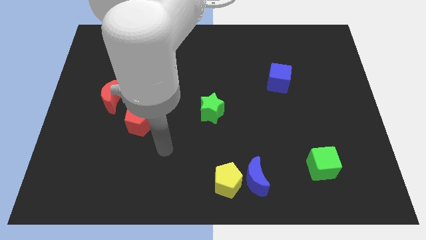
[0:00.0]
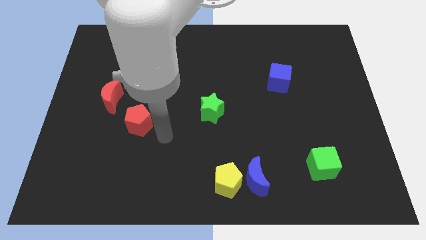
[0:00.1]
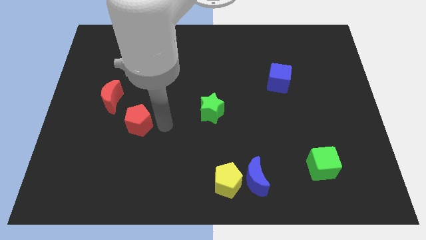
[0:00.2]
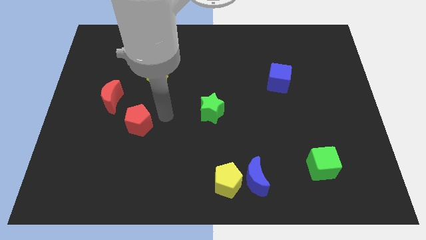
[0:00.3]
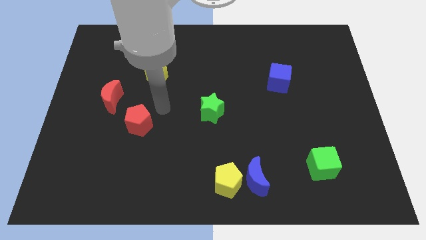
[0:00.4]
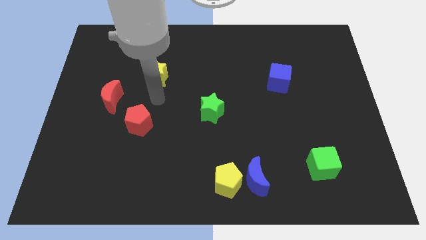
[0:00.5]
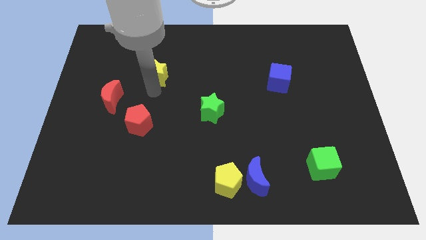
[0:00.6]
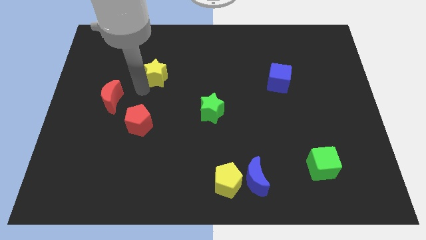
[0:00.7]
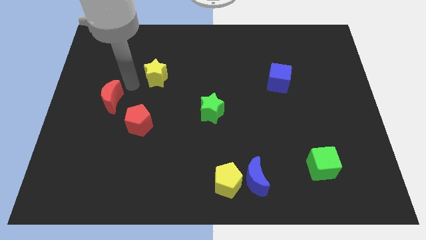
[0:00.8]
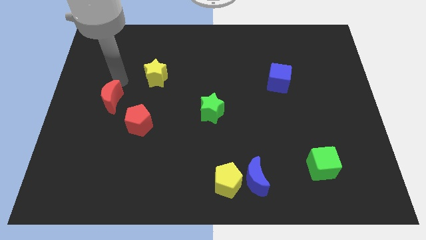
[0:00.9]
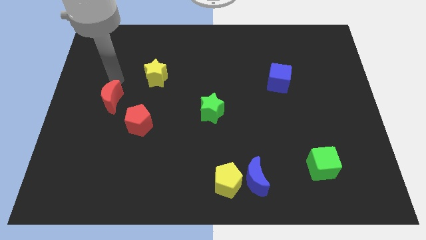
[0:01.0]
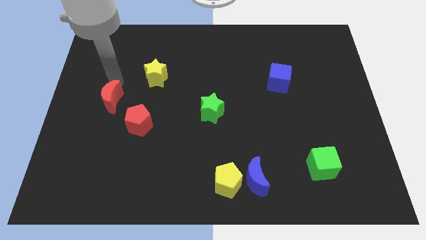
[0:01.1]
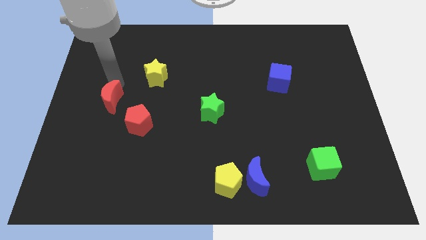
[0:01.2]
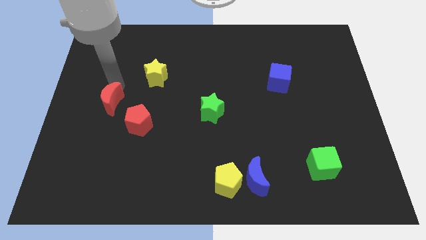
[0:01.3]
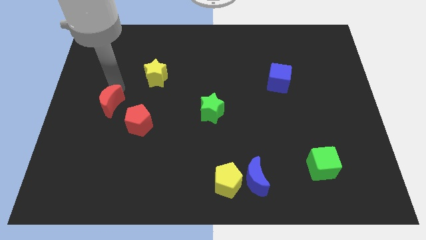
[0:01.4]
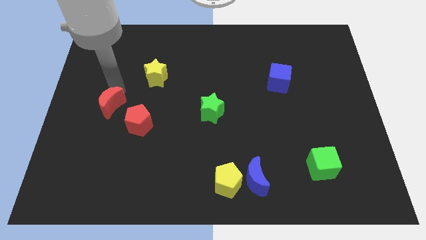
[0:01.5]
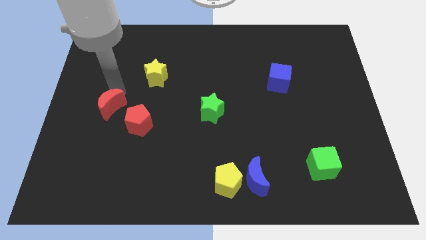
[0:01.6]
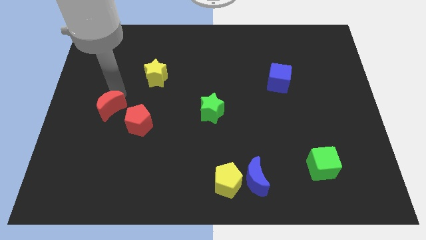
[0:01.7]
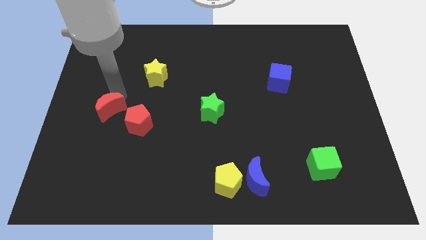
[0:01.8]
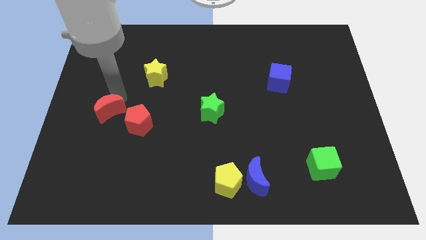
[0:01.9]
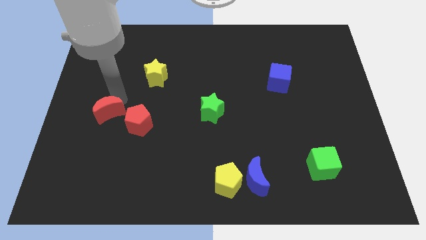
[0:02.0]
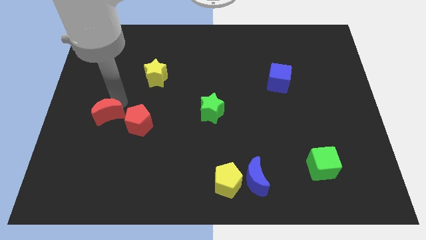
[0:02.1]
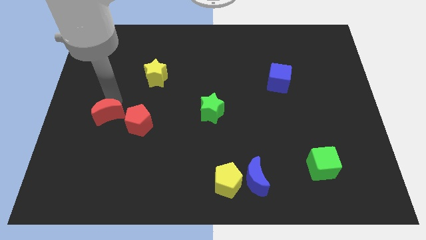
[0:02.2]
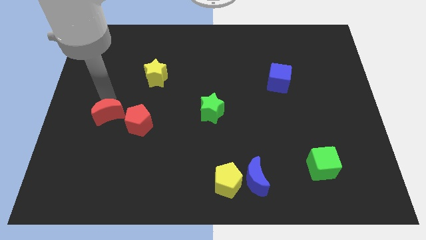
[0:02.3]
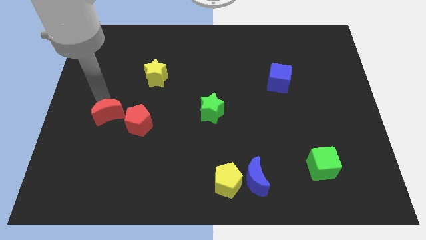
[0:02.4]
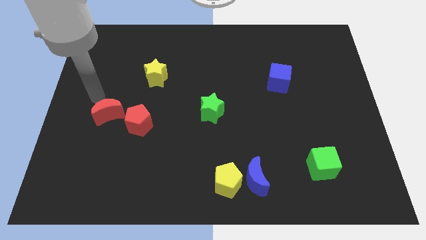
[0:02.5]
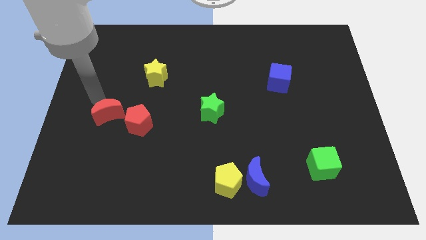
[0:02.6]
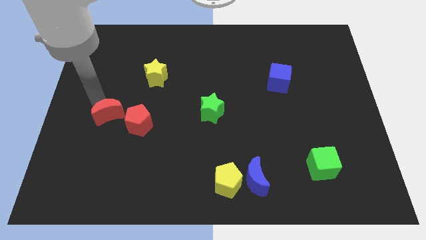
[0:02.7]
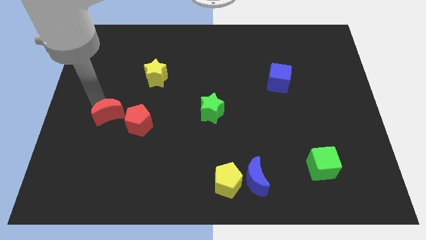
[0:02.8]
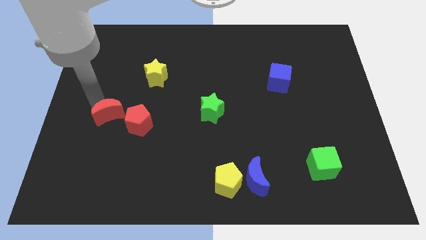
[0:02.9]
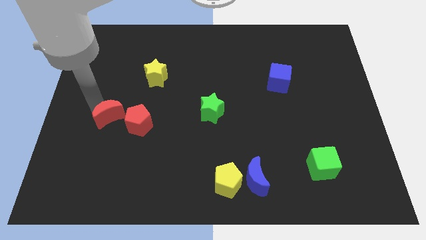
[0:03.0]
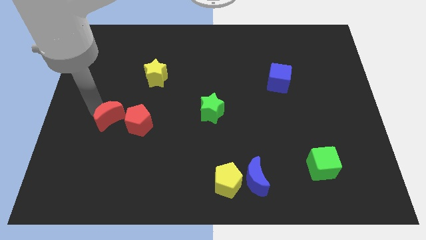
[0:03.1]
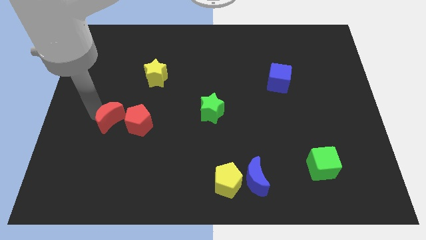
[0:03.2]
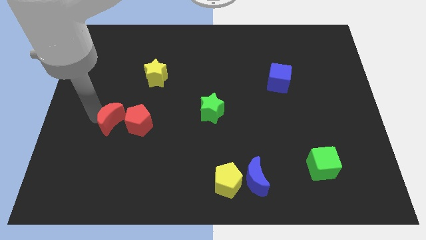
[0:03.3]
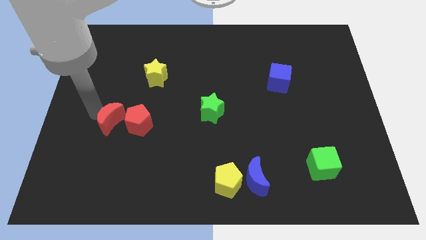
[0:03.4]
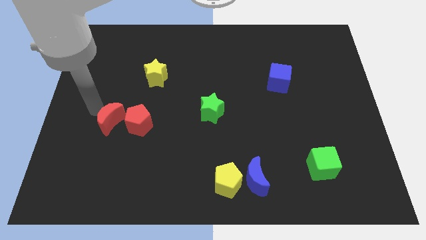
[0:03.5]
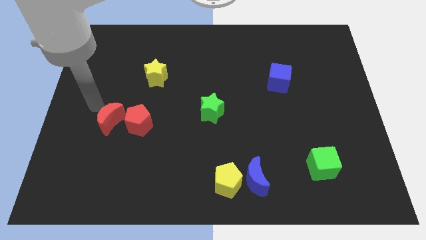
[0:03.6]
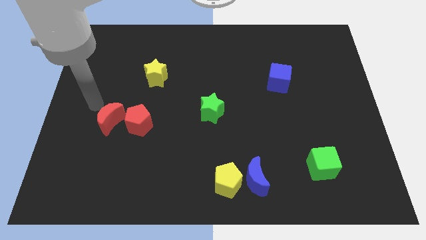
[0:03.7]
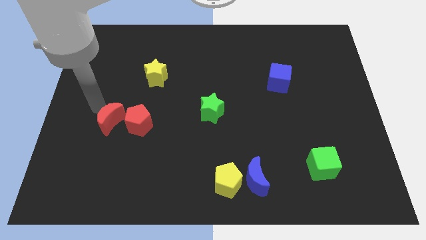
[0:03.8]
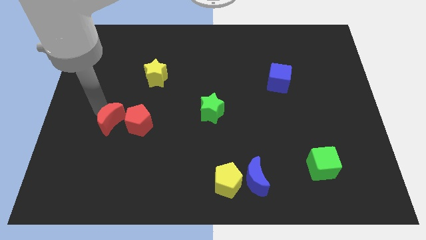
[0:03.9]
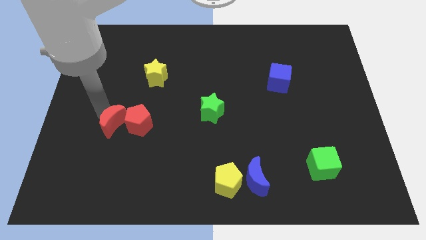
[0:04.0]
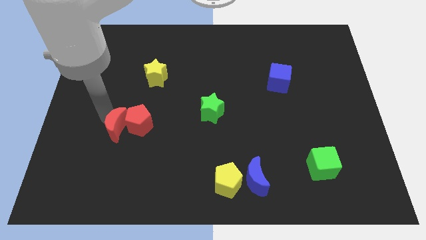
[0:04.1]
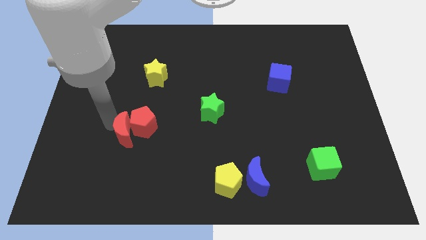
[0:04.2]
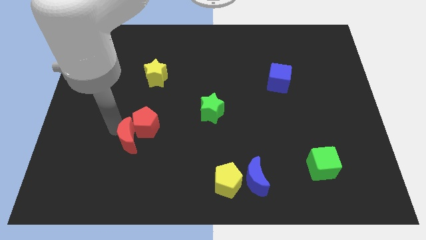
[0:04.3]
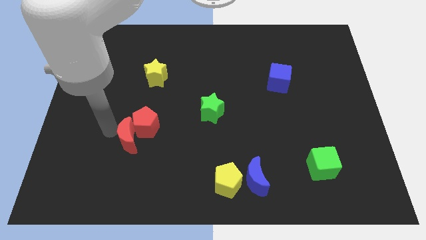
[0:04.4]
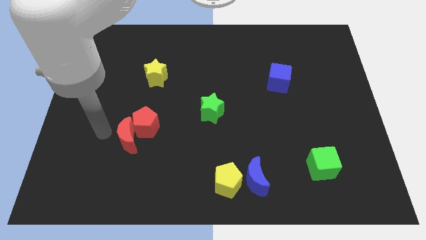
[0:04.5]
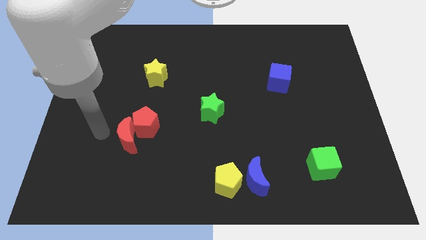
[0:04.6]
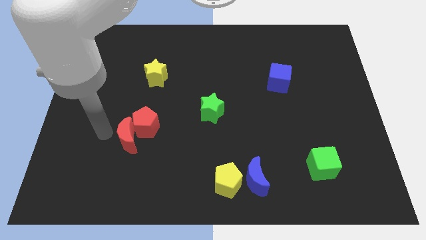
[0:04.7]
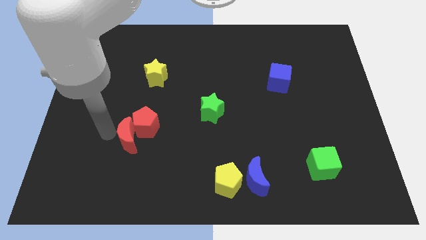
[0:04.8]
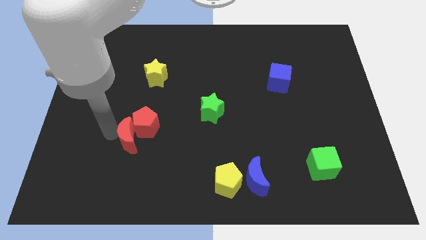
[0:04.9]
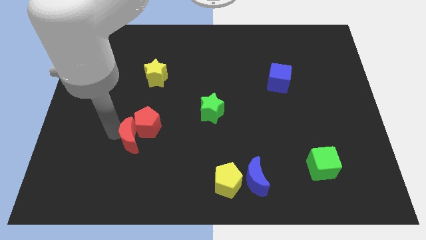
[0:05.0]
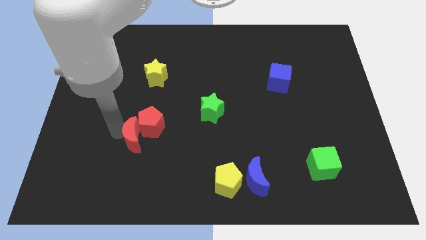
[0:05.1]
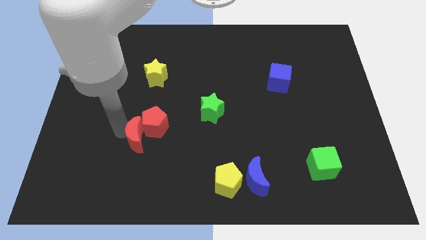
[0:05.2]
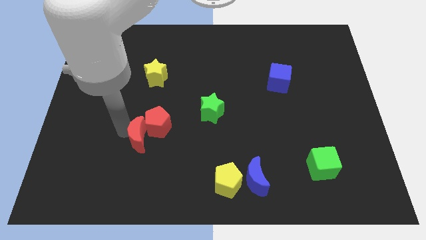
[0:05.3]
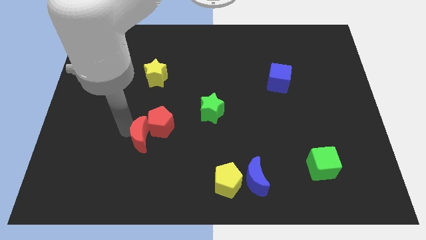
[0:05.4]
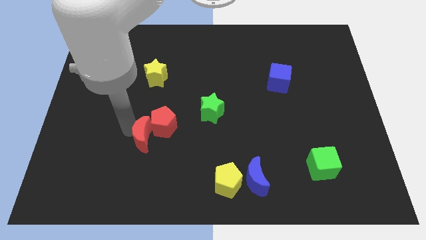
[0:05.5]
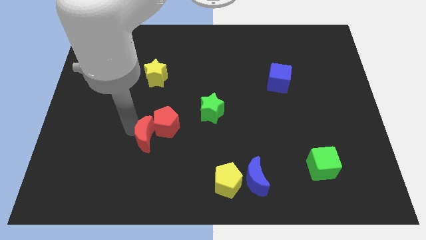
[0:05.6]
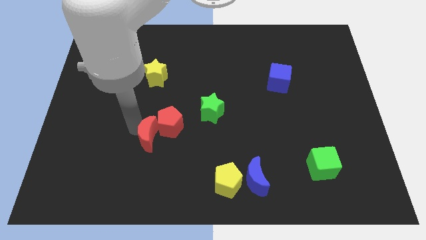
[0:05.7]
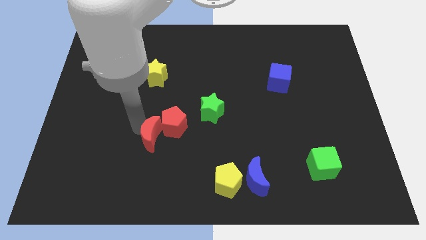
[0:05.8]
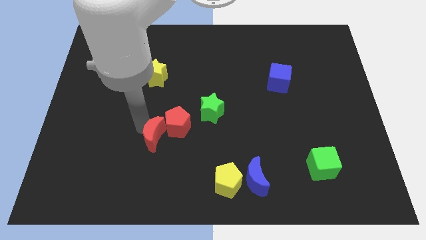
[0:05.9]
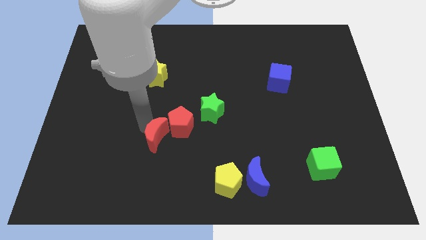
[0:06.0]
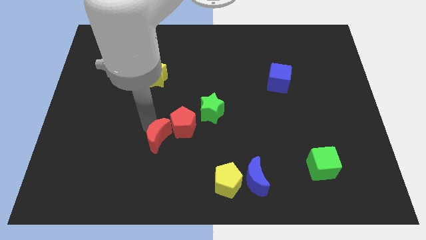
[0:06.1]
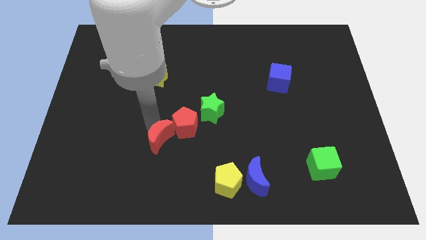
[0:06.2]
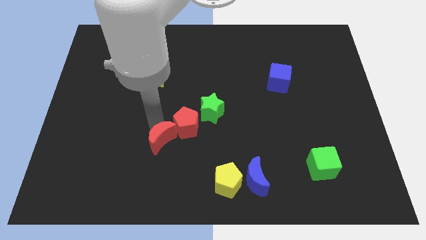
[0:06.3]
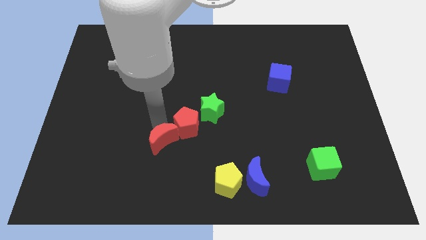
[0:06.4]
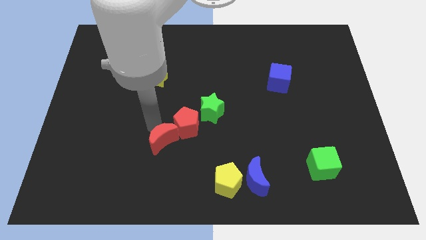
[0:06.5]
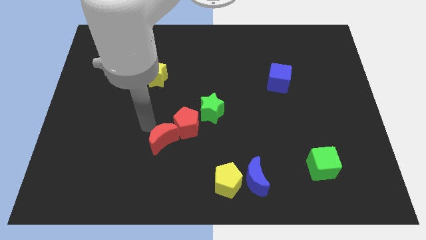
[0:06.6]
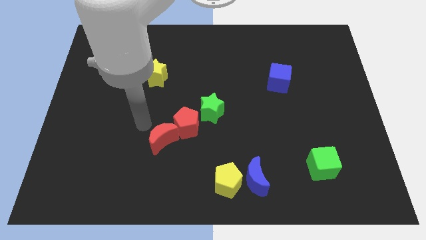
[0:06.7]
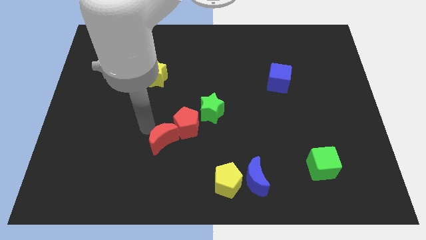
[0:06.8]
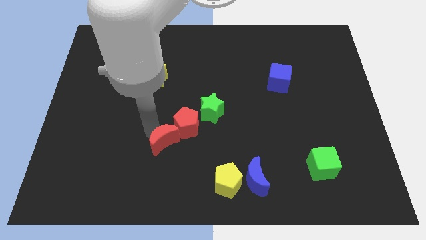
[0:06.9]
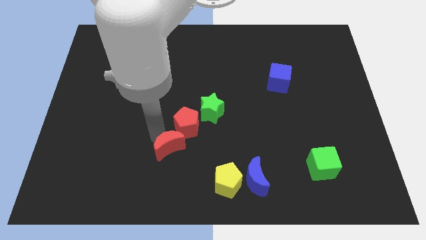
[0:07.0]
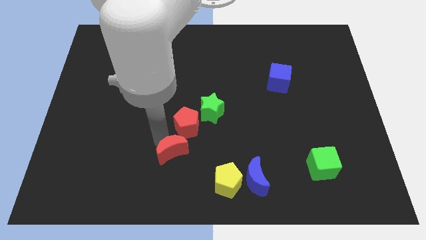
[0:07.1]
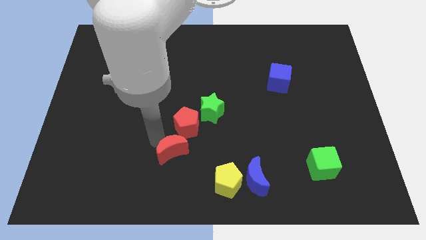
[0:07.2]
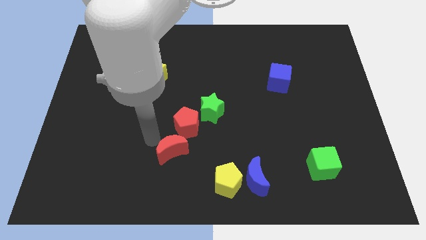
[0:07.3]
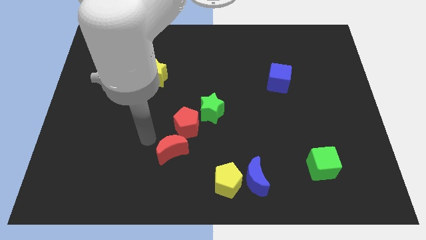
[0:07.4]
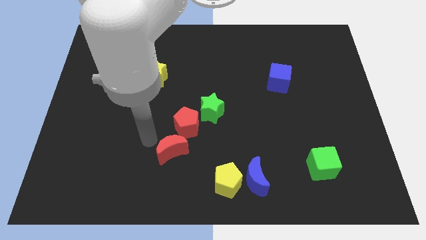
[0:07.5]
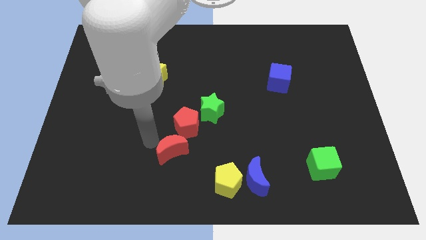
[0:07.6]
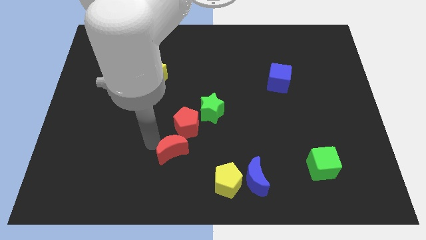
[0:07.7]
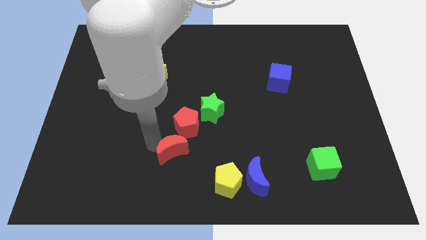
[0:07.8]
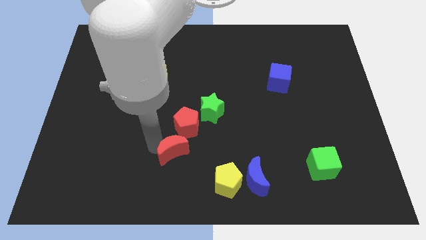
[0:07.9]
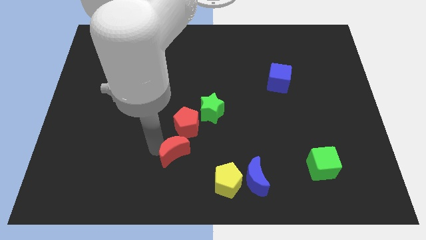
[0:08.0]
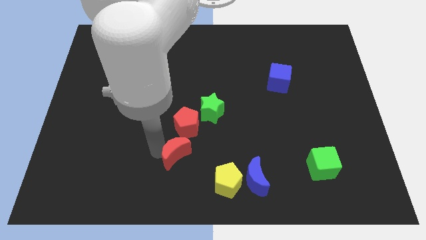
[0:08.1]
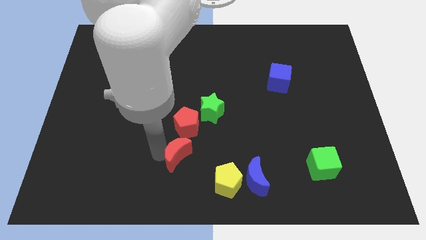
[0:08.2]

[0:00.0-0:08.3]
put the red moon to the top left of the yellow pentagon
